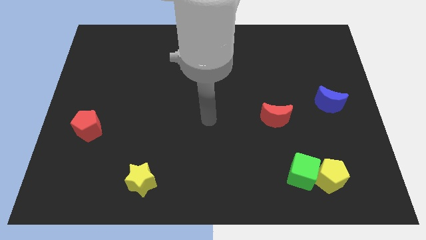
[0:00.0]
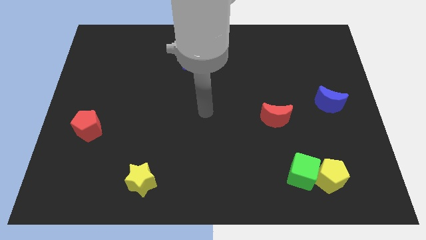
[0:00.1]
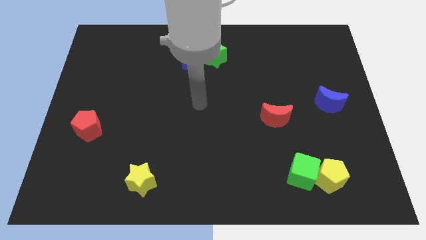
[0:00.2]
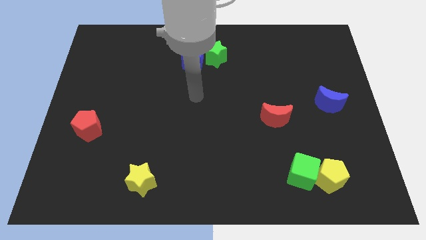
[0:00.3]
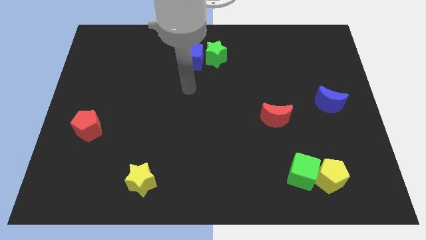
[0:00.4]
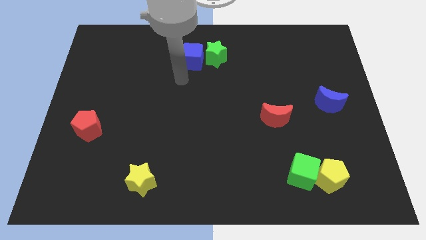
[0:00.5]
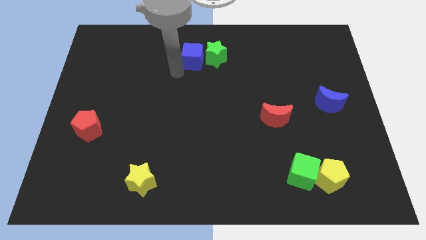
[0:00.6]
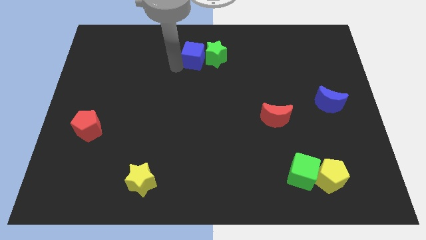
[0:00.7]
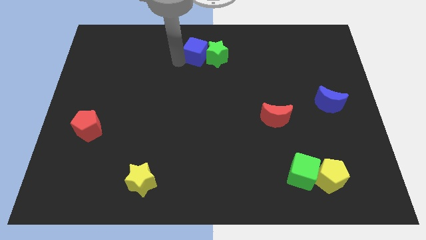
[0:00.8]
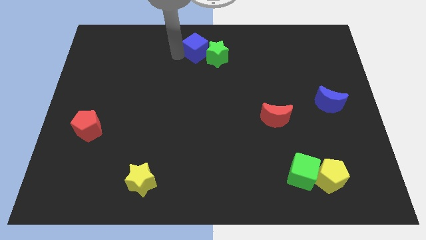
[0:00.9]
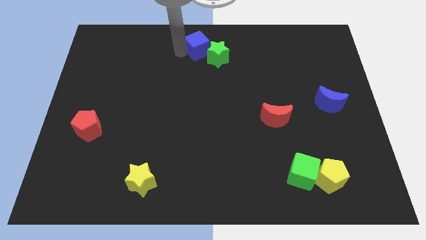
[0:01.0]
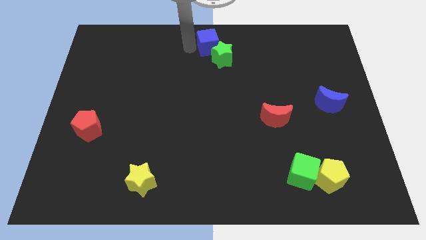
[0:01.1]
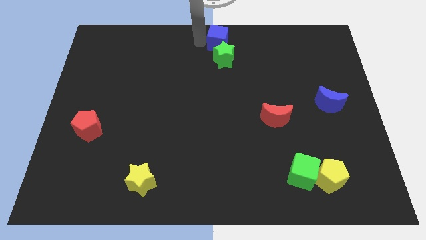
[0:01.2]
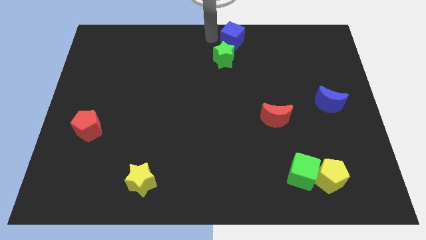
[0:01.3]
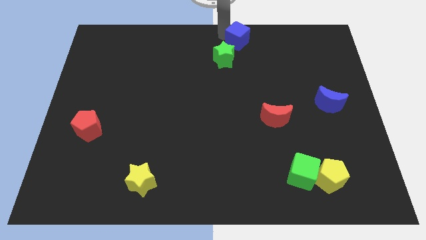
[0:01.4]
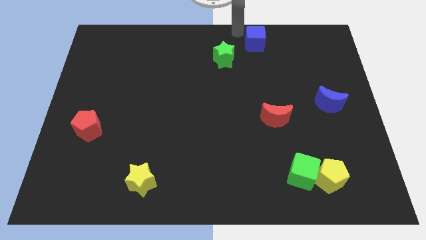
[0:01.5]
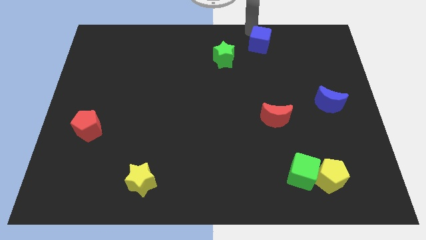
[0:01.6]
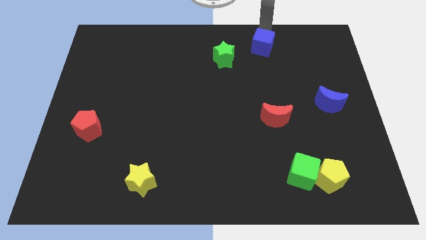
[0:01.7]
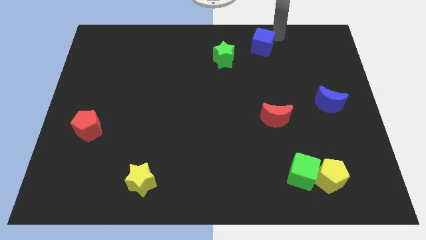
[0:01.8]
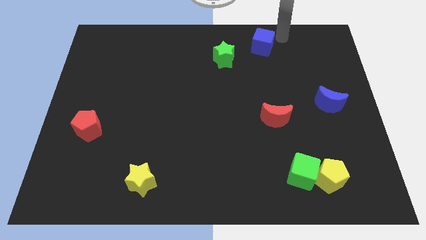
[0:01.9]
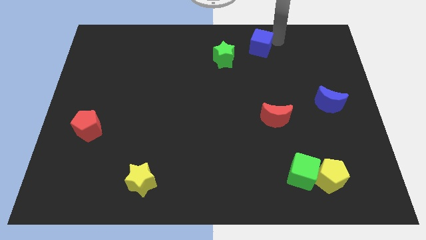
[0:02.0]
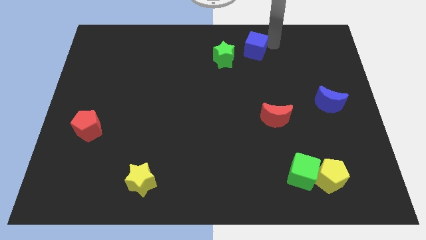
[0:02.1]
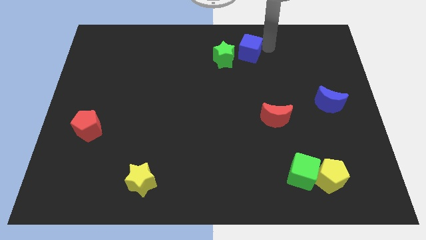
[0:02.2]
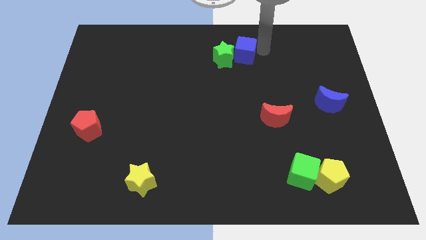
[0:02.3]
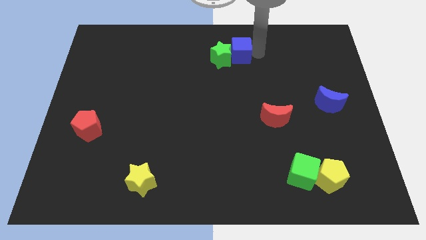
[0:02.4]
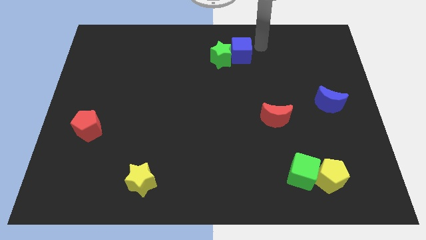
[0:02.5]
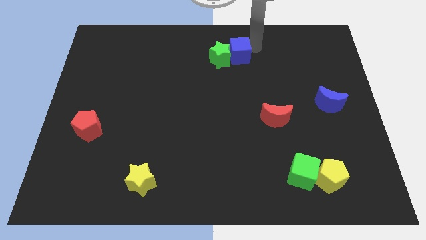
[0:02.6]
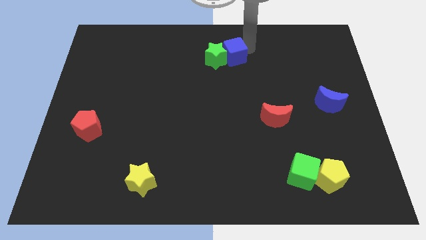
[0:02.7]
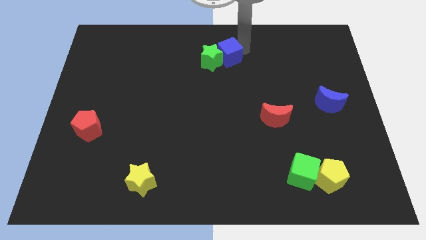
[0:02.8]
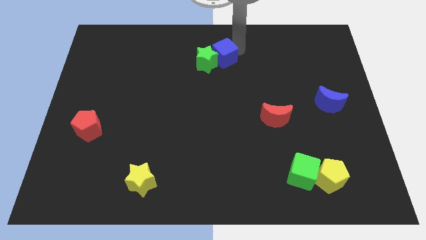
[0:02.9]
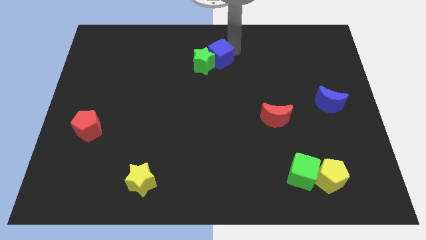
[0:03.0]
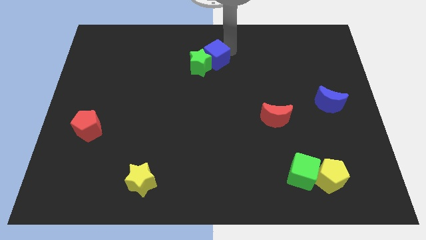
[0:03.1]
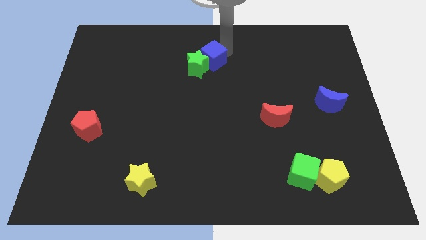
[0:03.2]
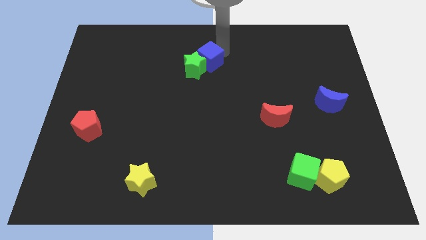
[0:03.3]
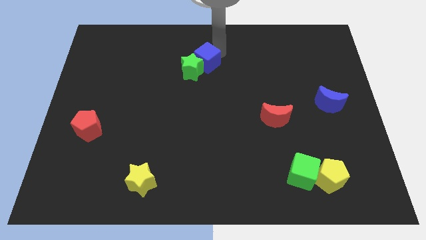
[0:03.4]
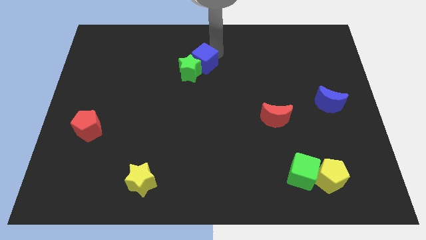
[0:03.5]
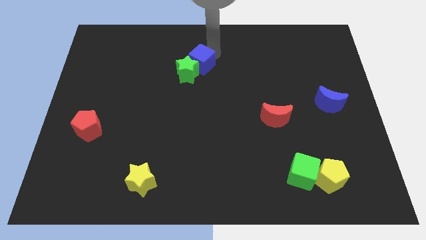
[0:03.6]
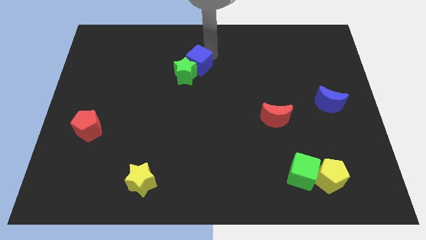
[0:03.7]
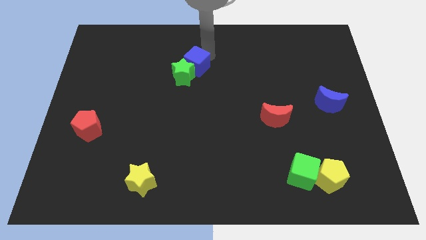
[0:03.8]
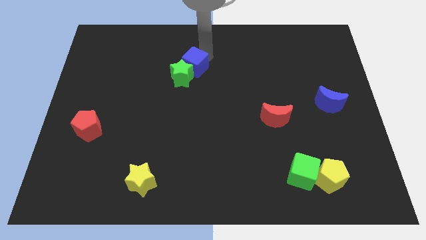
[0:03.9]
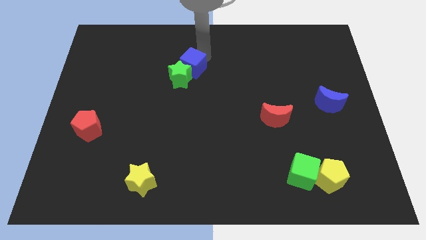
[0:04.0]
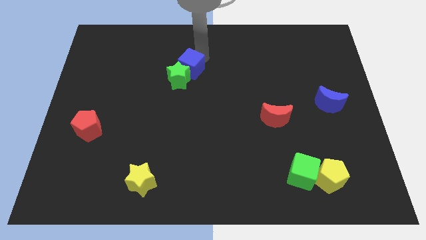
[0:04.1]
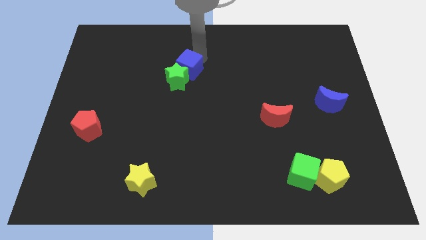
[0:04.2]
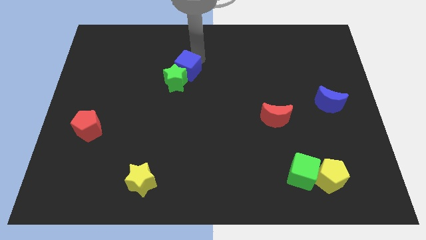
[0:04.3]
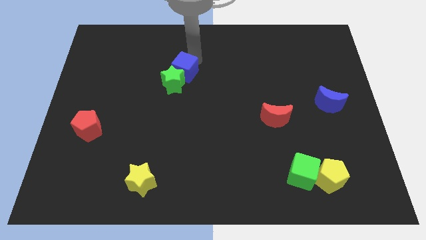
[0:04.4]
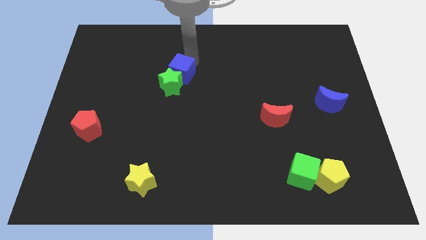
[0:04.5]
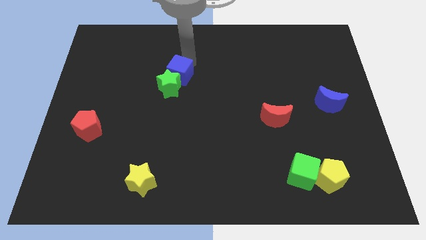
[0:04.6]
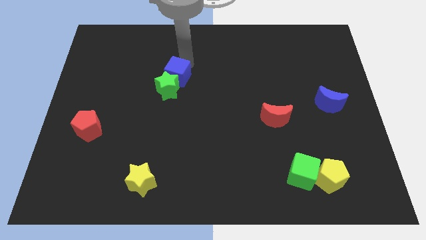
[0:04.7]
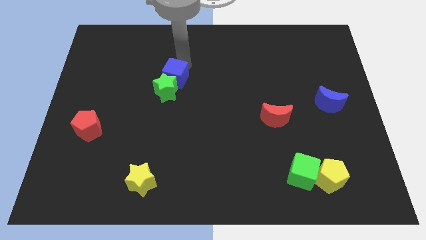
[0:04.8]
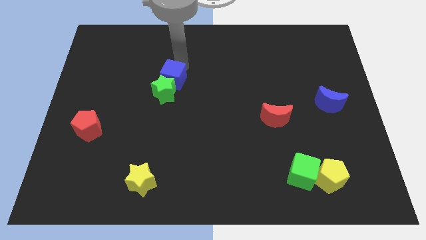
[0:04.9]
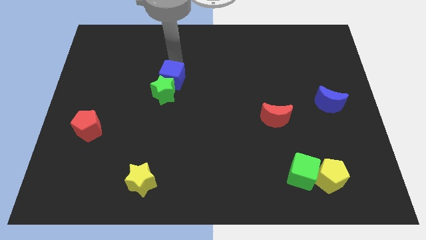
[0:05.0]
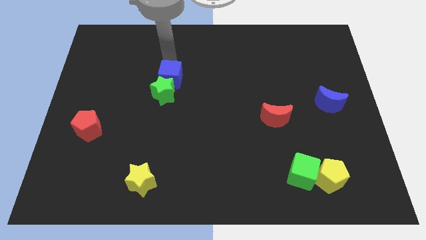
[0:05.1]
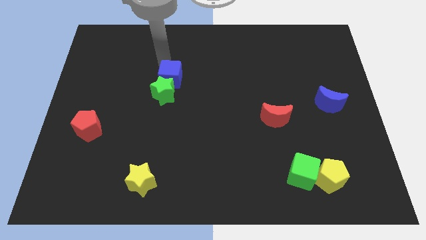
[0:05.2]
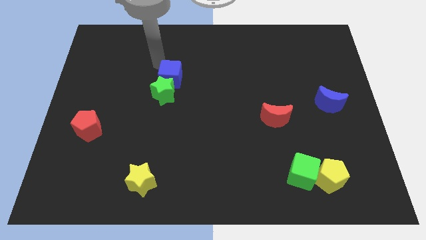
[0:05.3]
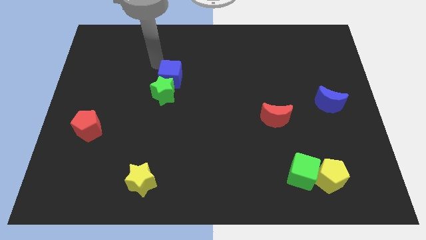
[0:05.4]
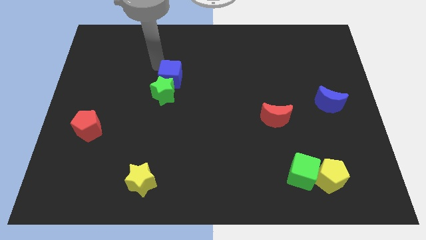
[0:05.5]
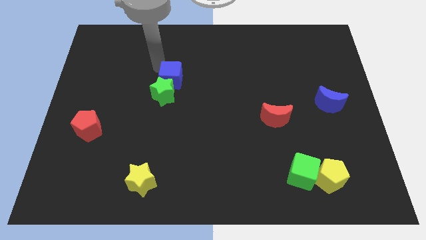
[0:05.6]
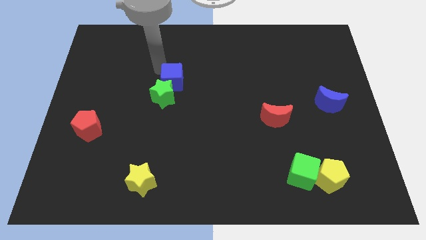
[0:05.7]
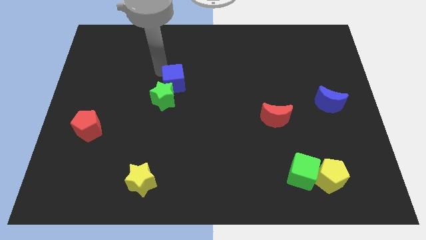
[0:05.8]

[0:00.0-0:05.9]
move the blue cube slightly down

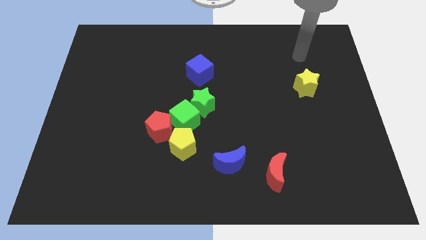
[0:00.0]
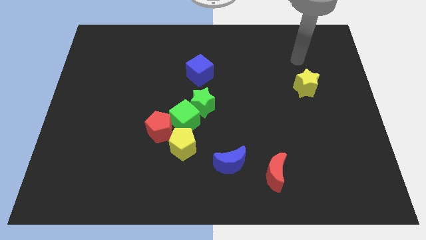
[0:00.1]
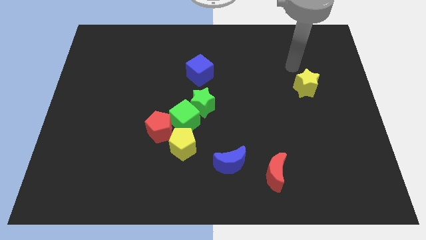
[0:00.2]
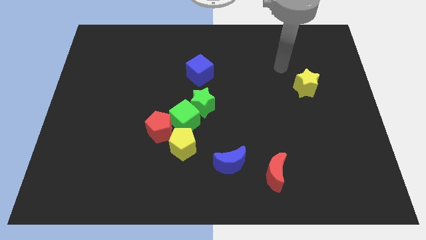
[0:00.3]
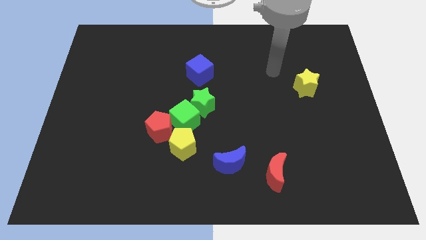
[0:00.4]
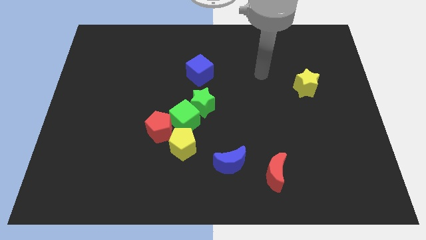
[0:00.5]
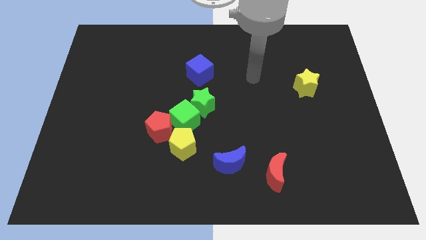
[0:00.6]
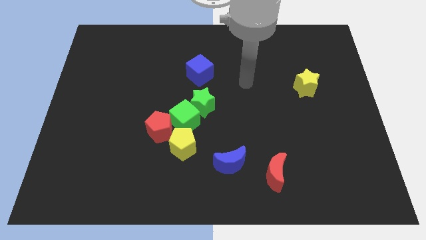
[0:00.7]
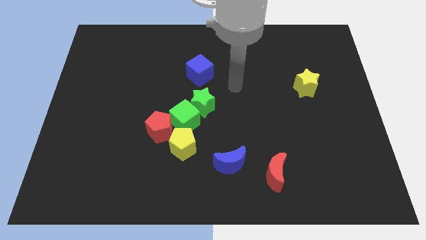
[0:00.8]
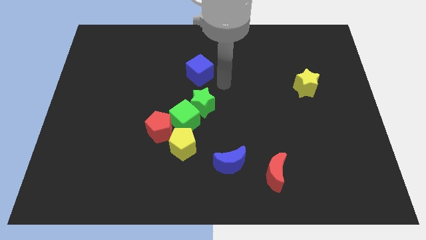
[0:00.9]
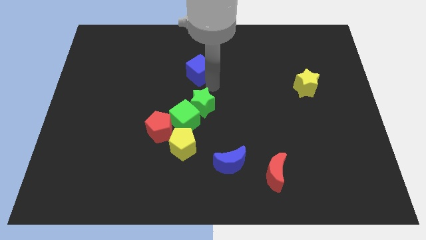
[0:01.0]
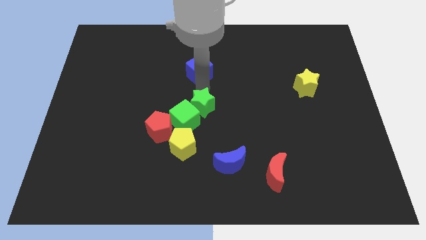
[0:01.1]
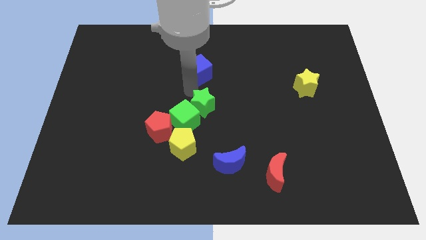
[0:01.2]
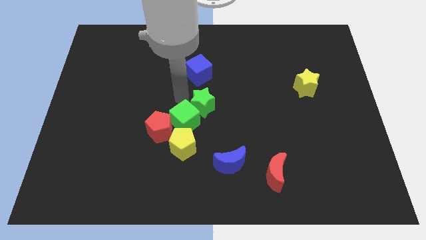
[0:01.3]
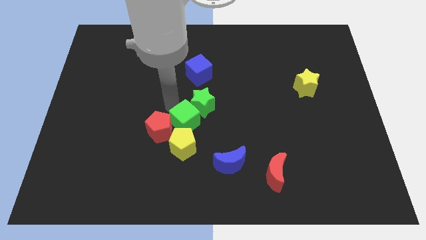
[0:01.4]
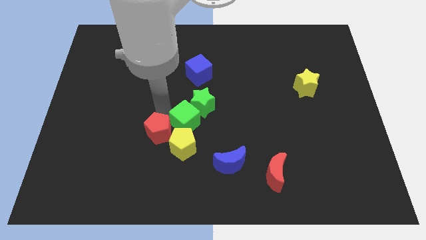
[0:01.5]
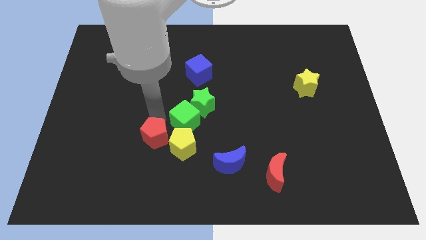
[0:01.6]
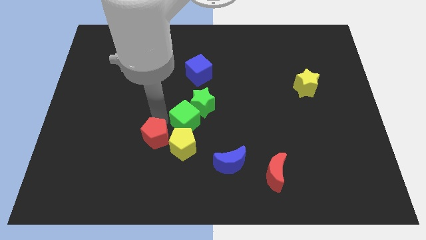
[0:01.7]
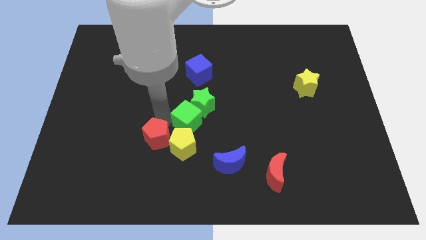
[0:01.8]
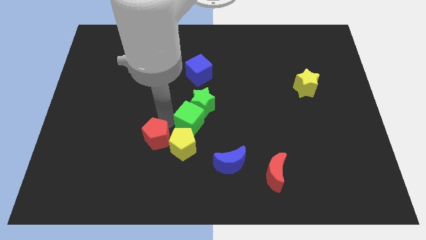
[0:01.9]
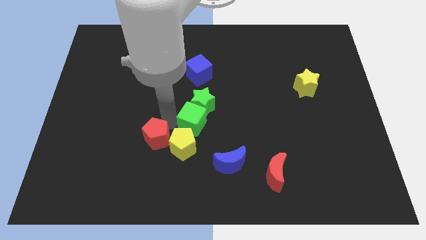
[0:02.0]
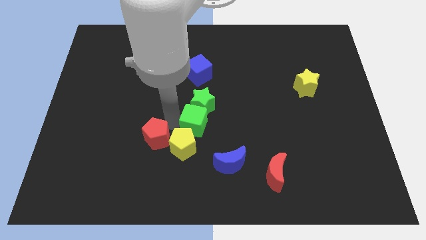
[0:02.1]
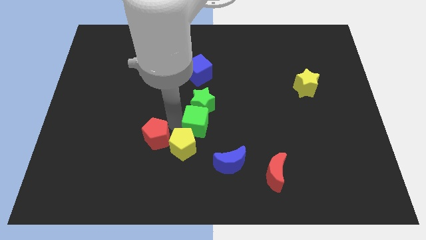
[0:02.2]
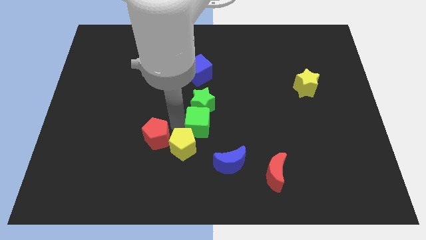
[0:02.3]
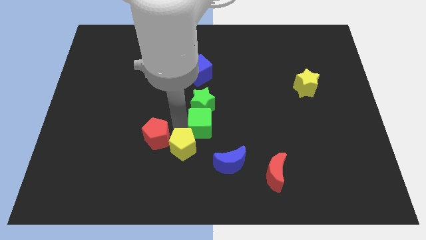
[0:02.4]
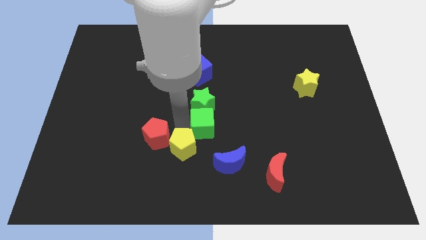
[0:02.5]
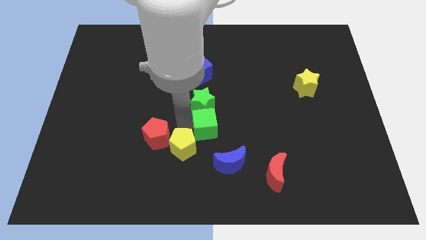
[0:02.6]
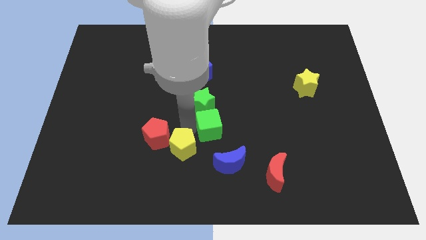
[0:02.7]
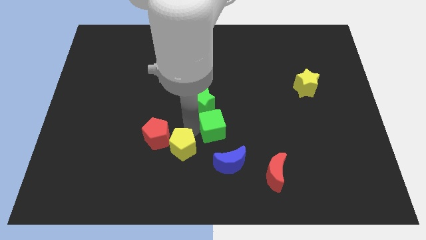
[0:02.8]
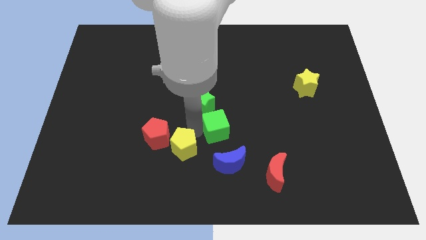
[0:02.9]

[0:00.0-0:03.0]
slightly move the green cube to the right
